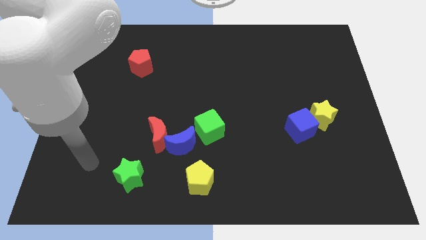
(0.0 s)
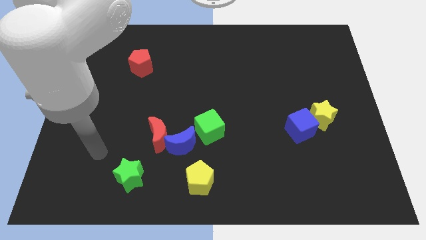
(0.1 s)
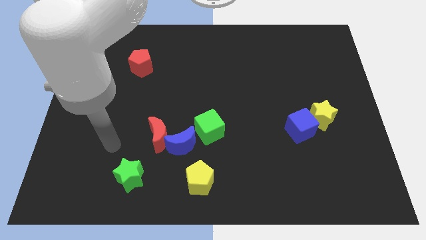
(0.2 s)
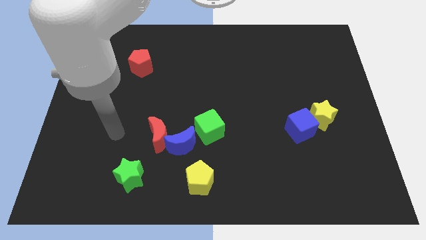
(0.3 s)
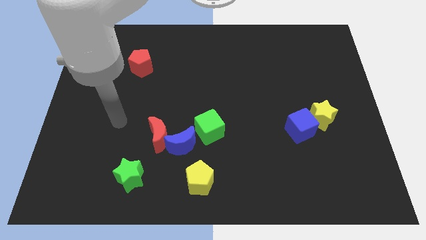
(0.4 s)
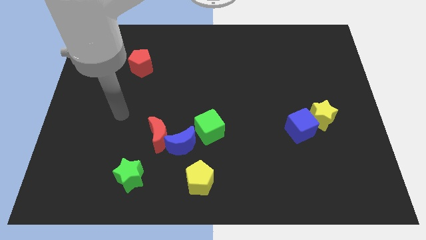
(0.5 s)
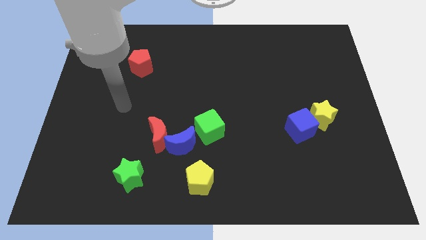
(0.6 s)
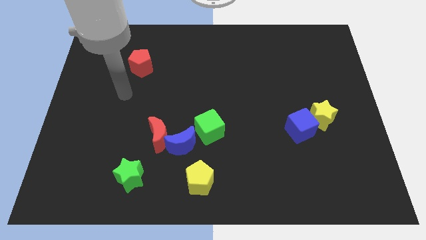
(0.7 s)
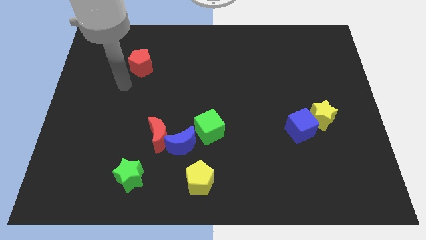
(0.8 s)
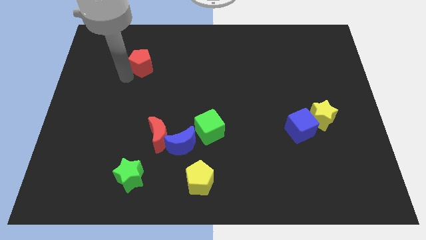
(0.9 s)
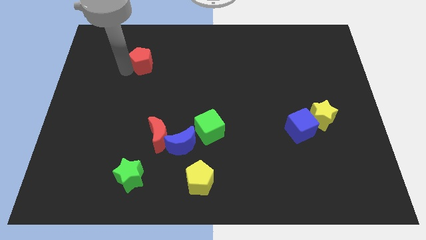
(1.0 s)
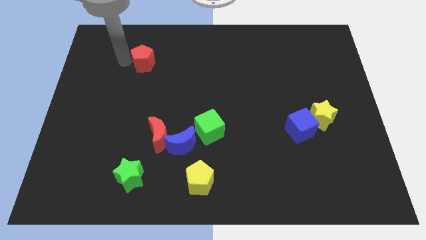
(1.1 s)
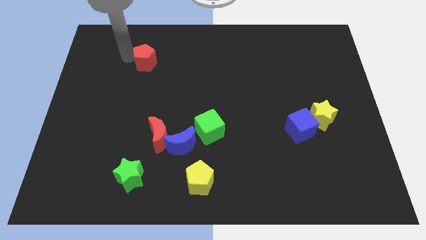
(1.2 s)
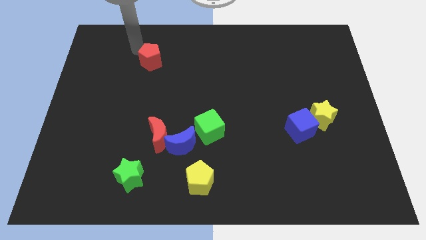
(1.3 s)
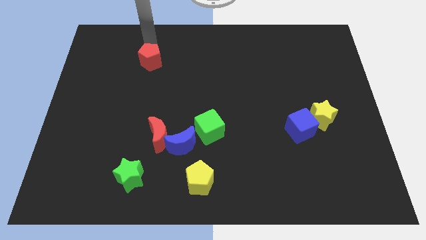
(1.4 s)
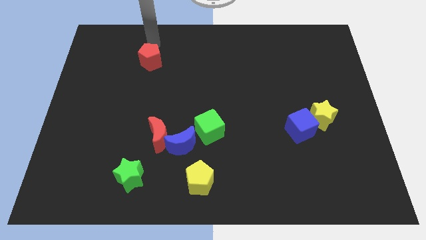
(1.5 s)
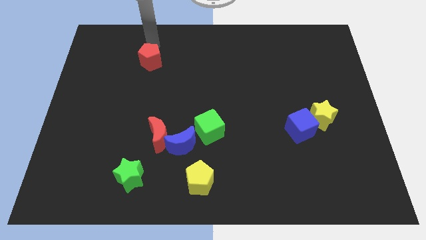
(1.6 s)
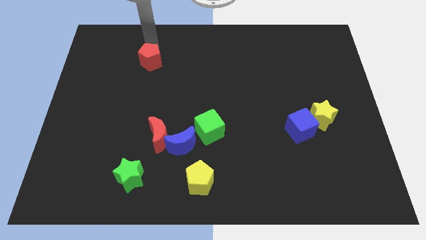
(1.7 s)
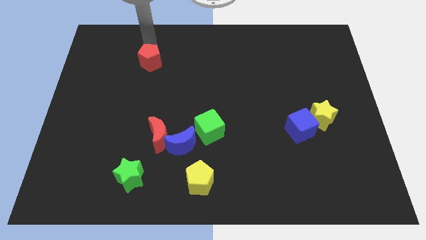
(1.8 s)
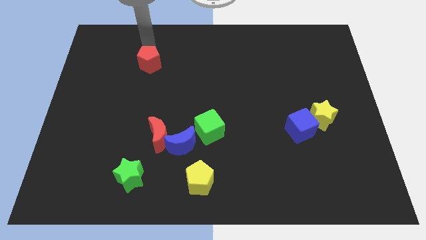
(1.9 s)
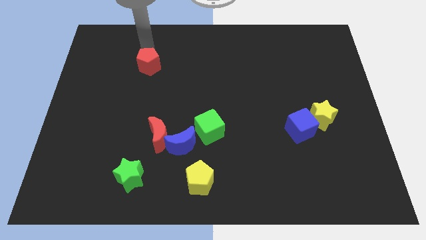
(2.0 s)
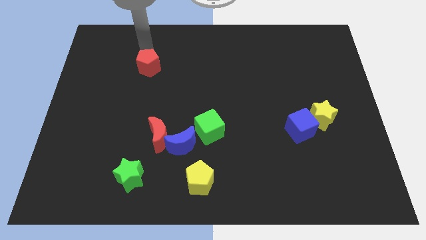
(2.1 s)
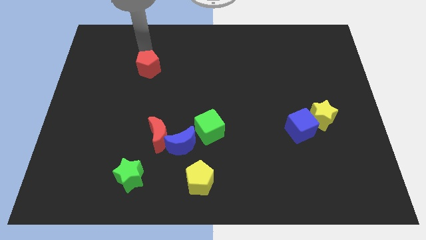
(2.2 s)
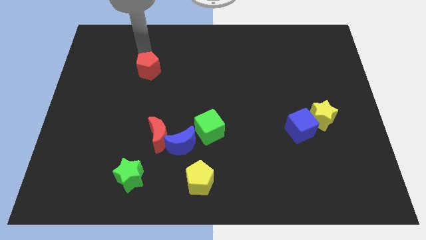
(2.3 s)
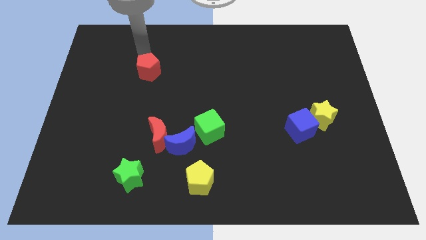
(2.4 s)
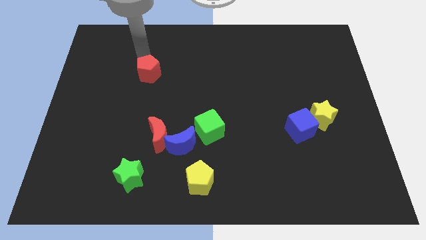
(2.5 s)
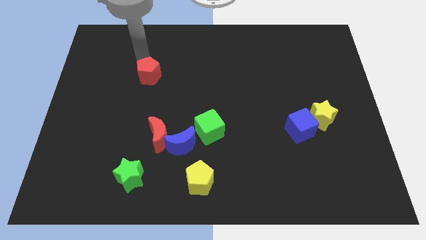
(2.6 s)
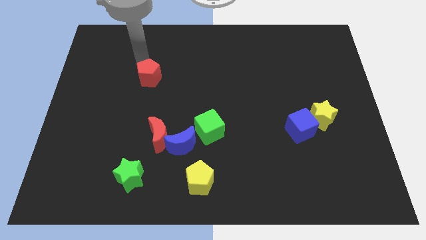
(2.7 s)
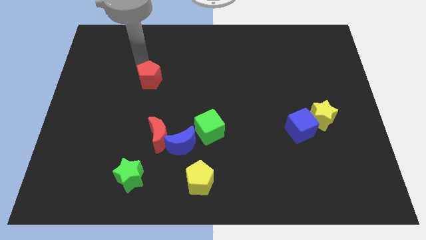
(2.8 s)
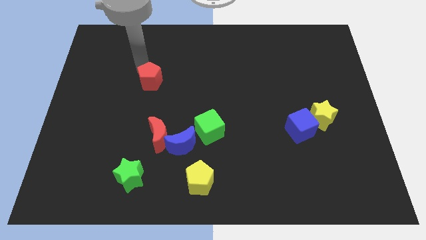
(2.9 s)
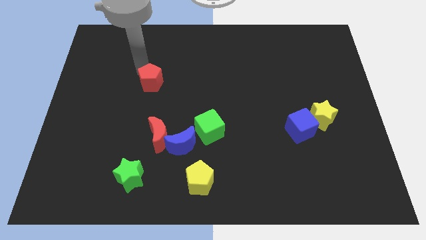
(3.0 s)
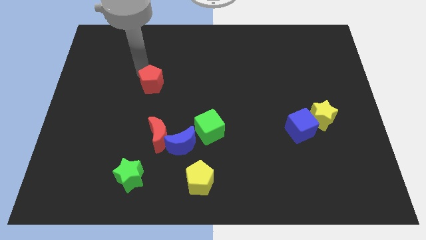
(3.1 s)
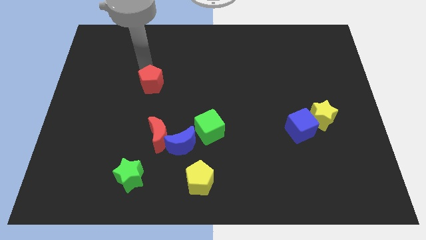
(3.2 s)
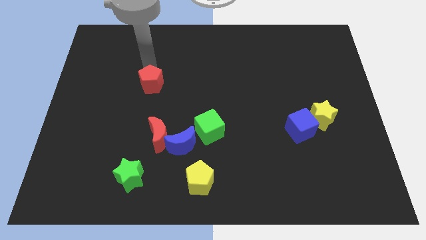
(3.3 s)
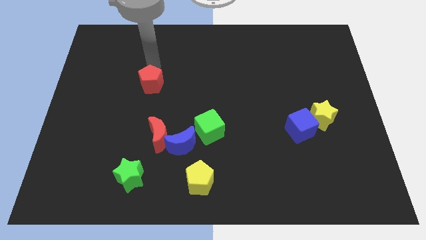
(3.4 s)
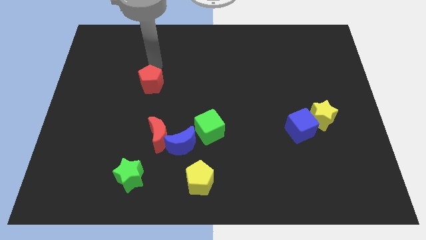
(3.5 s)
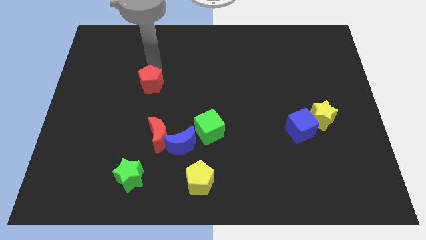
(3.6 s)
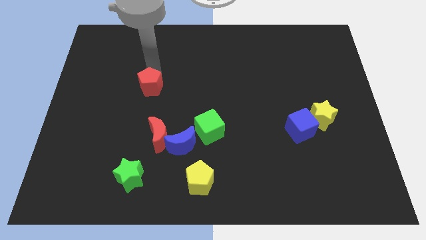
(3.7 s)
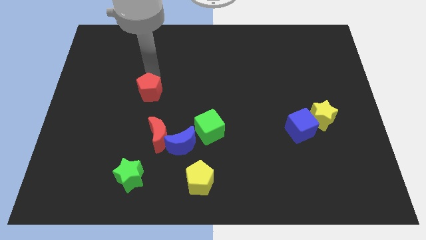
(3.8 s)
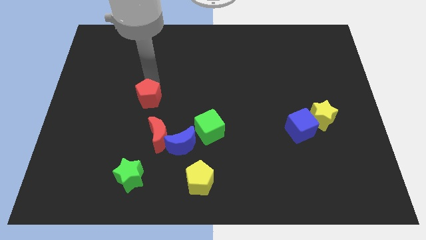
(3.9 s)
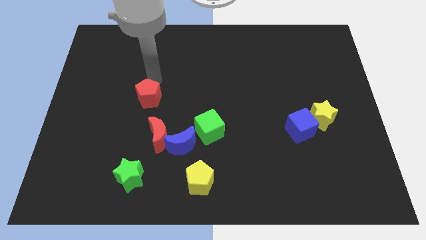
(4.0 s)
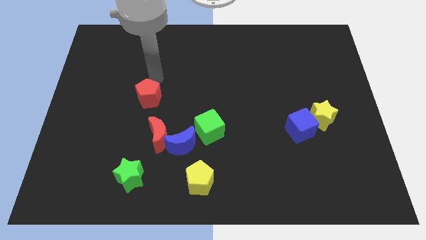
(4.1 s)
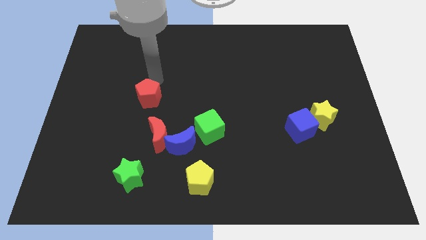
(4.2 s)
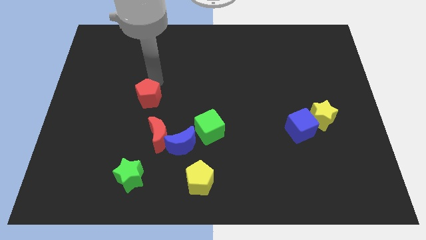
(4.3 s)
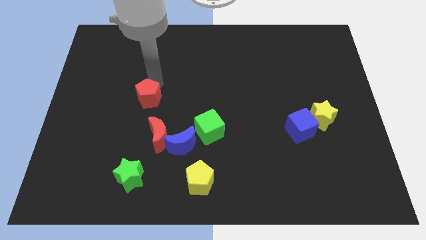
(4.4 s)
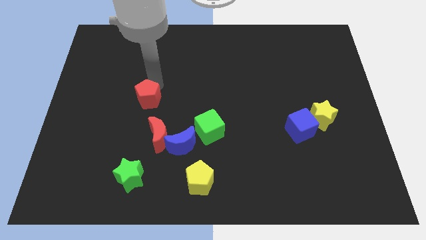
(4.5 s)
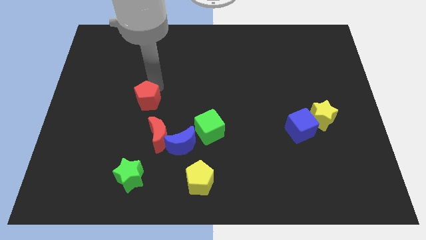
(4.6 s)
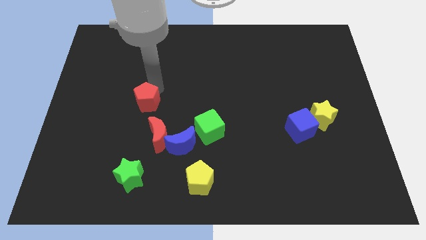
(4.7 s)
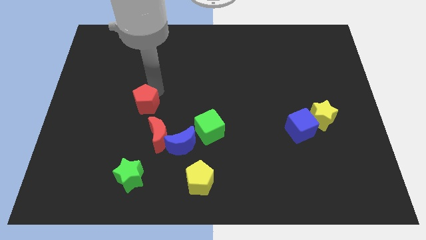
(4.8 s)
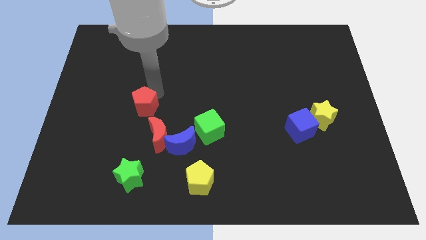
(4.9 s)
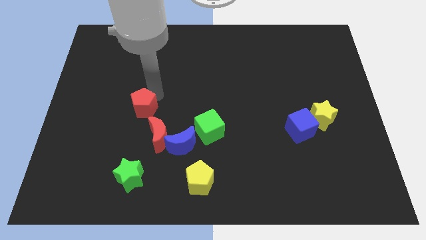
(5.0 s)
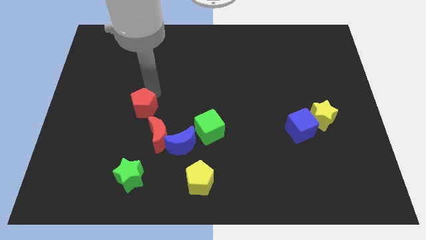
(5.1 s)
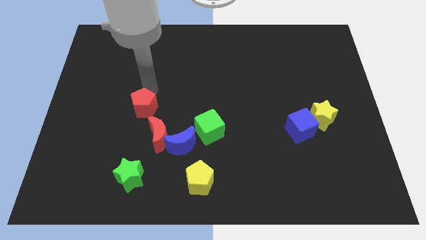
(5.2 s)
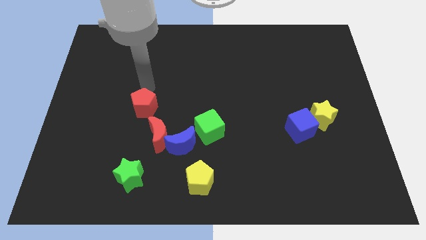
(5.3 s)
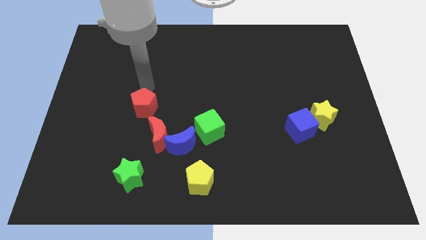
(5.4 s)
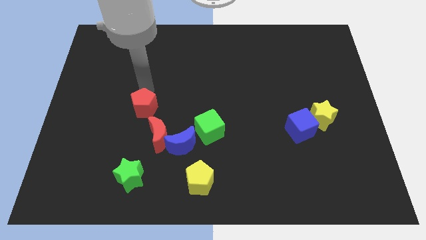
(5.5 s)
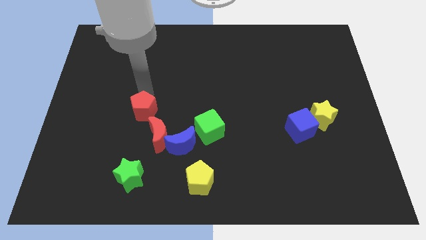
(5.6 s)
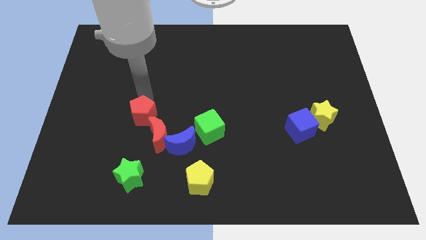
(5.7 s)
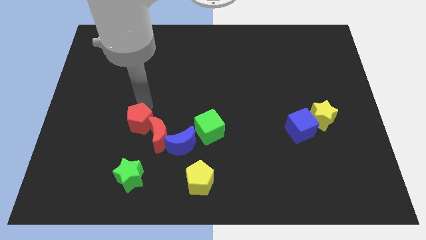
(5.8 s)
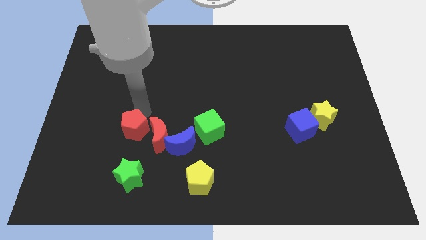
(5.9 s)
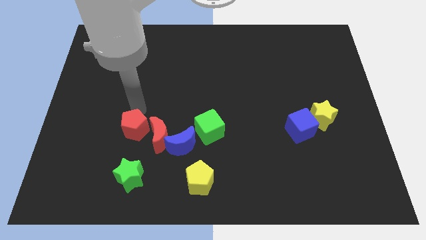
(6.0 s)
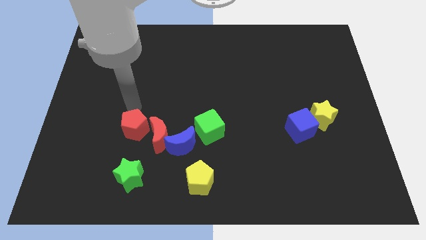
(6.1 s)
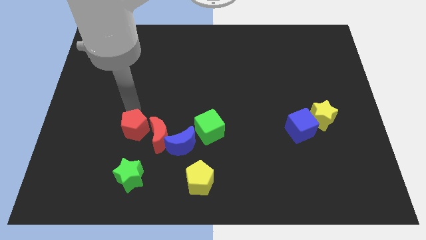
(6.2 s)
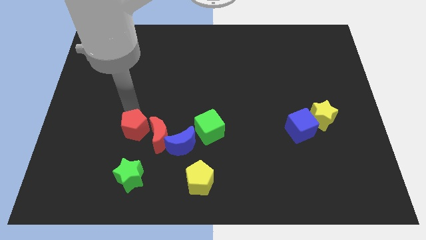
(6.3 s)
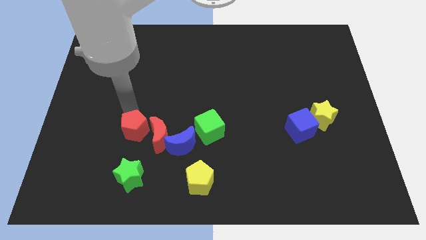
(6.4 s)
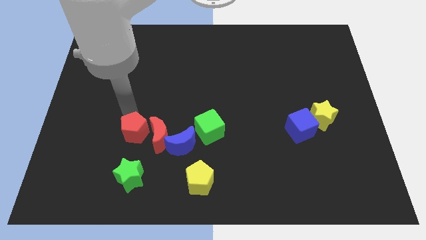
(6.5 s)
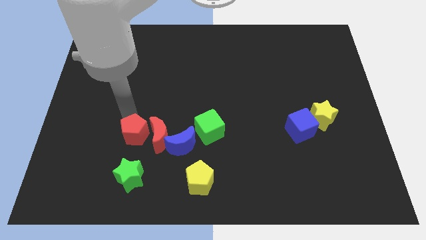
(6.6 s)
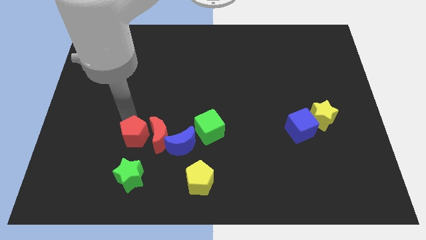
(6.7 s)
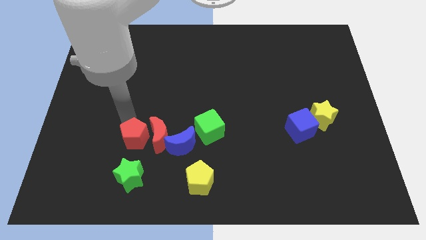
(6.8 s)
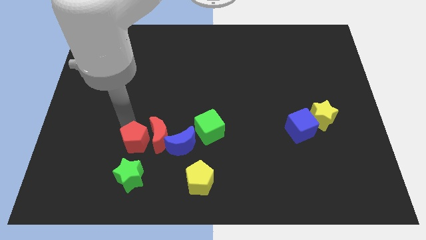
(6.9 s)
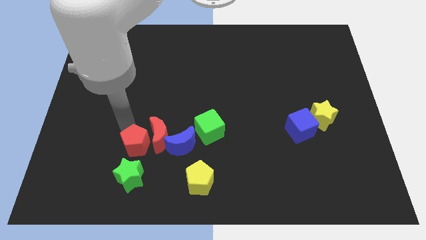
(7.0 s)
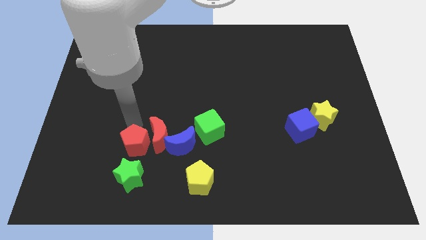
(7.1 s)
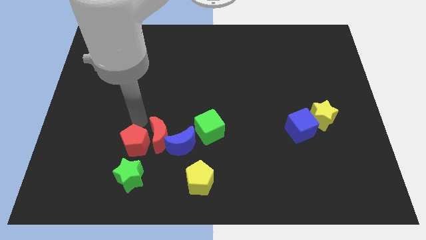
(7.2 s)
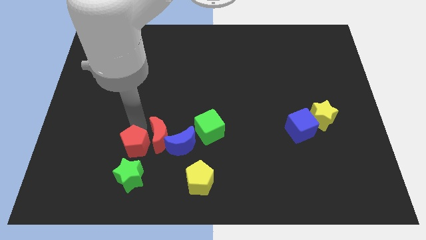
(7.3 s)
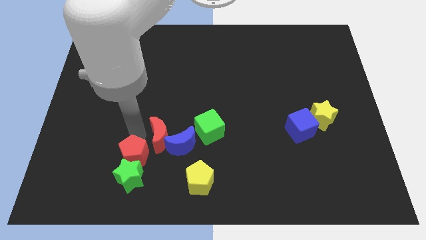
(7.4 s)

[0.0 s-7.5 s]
put the red pentagon towards the green star
